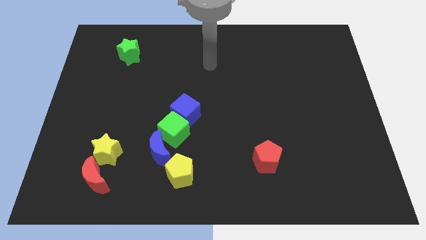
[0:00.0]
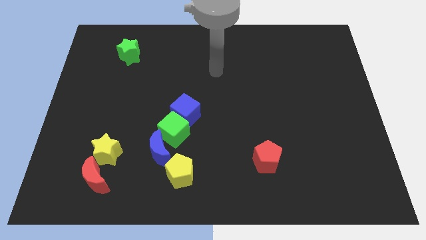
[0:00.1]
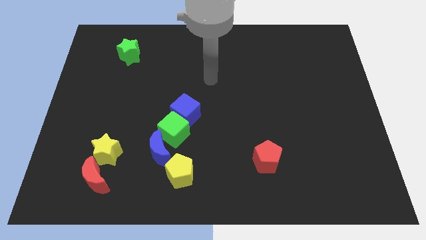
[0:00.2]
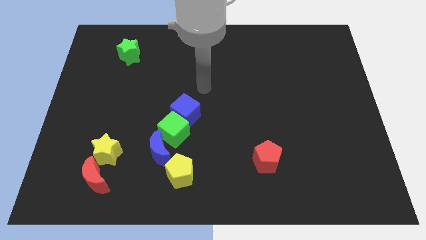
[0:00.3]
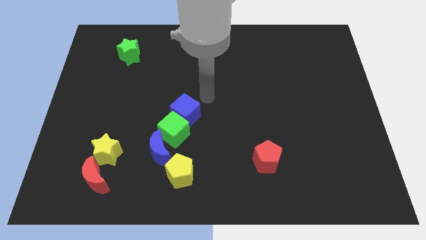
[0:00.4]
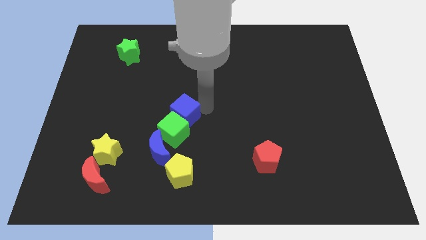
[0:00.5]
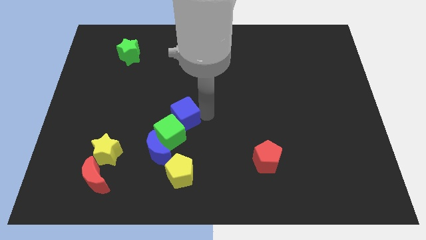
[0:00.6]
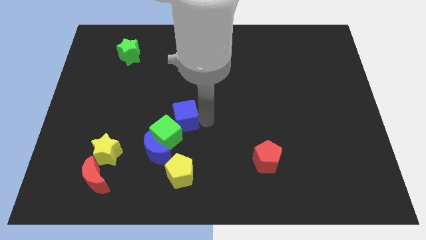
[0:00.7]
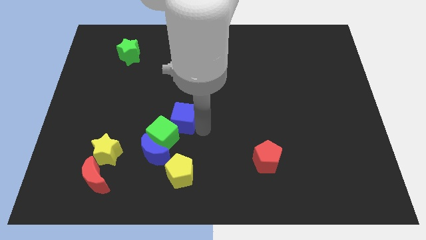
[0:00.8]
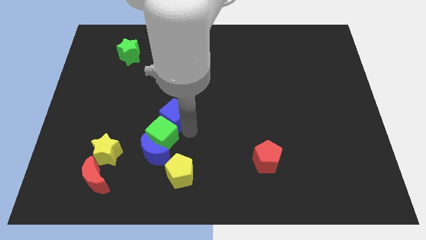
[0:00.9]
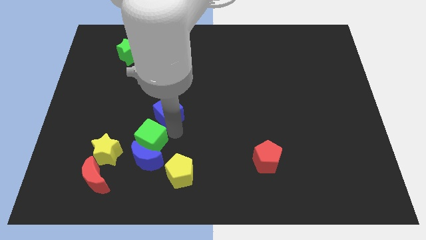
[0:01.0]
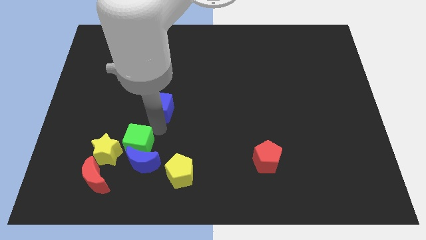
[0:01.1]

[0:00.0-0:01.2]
pull the blue cube apart from the green cube

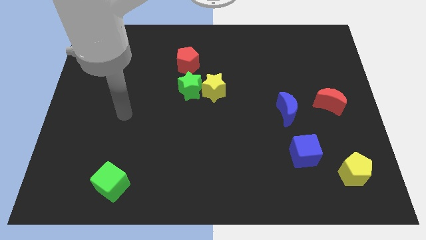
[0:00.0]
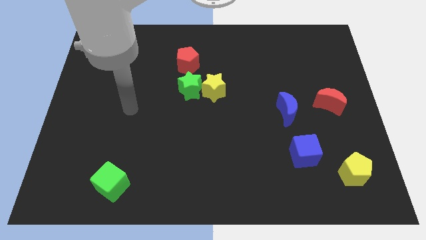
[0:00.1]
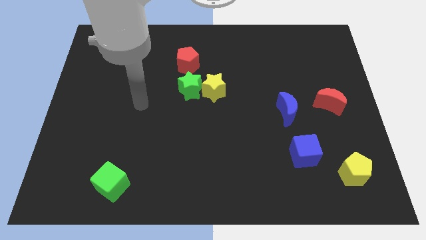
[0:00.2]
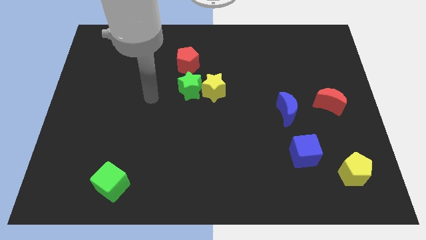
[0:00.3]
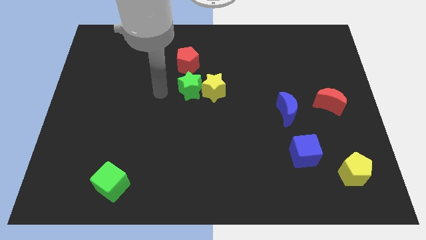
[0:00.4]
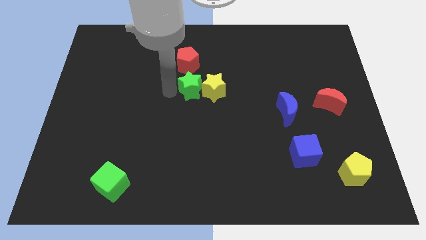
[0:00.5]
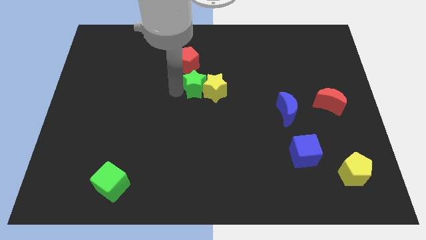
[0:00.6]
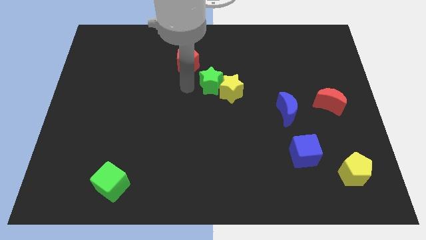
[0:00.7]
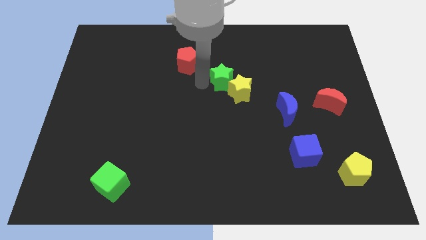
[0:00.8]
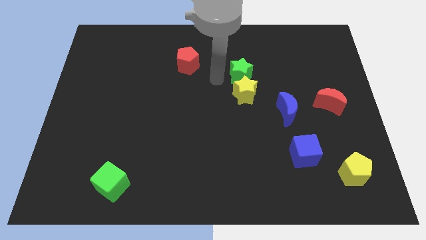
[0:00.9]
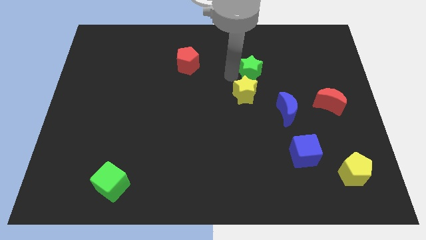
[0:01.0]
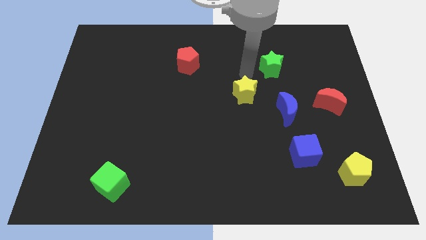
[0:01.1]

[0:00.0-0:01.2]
separate the yellow star from the green star

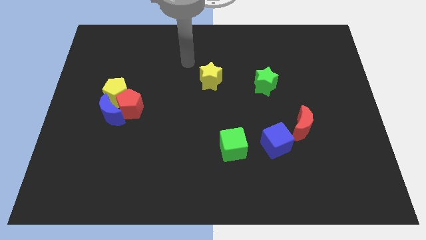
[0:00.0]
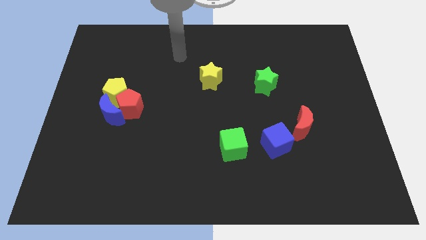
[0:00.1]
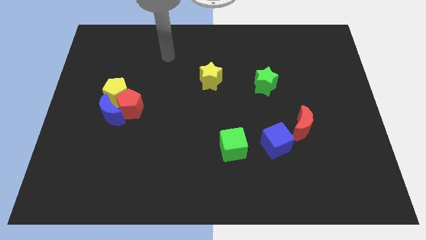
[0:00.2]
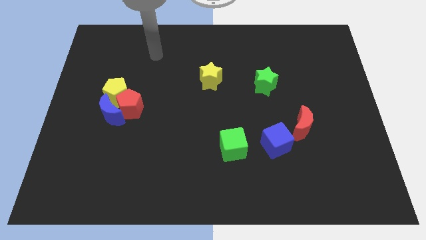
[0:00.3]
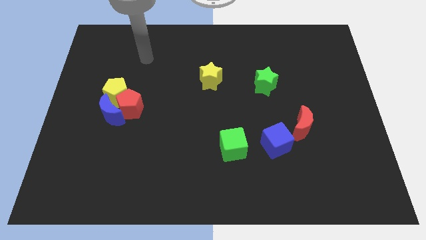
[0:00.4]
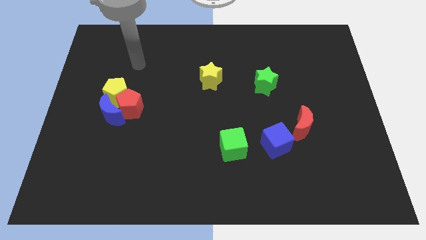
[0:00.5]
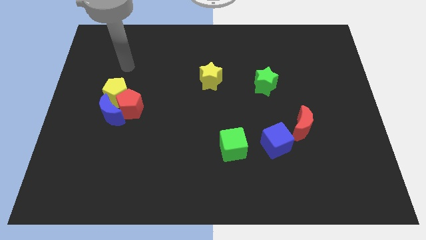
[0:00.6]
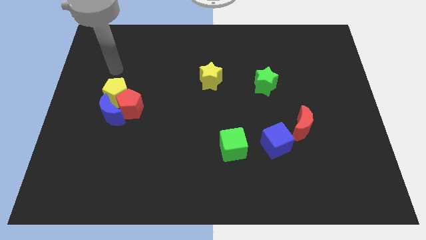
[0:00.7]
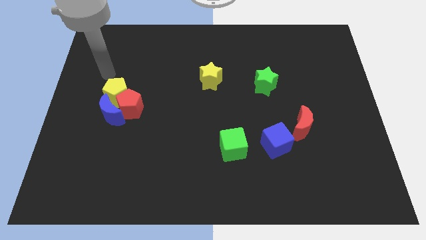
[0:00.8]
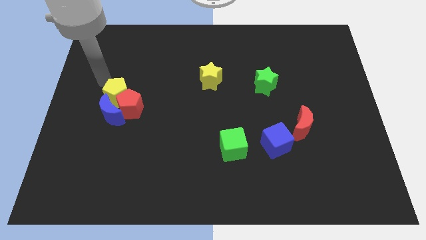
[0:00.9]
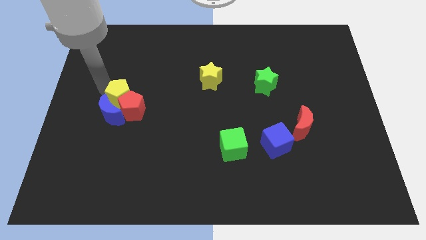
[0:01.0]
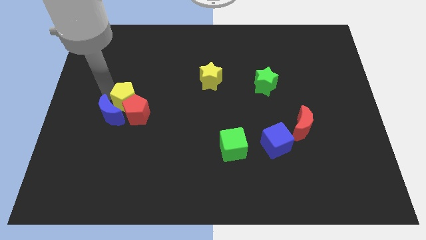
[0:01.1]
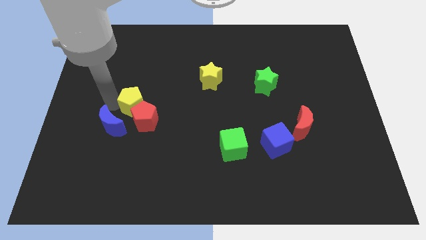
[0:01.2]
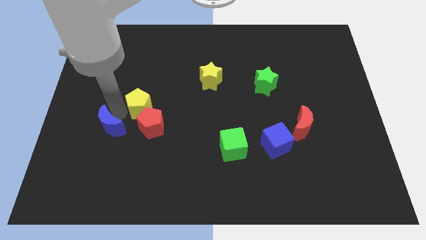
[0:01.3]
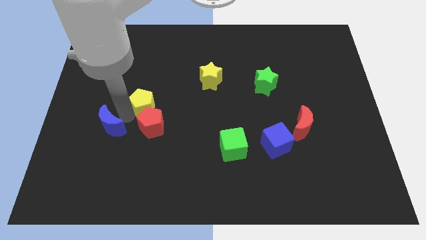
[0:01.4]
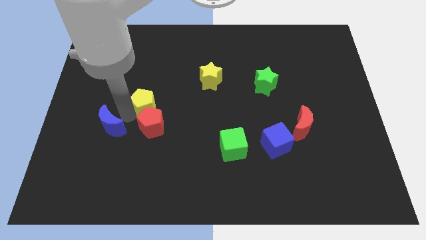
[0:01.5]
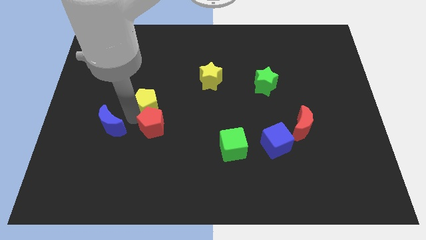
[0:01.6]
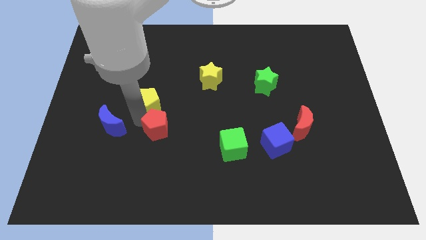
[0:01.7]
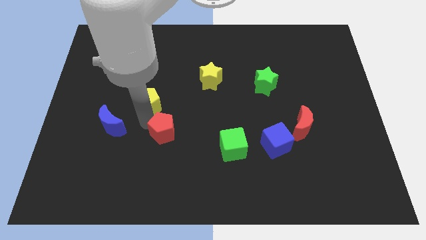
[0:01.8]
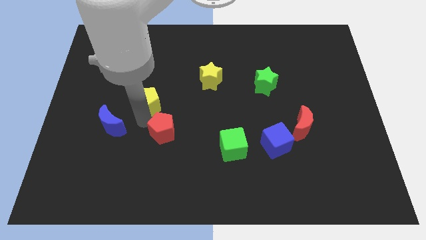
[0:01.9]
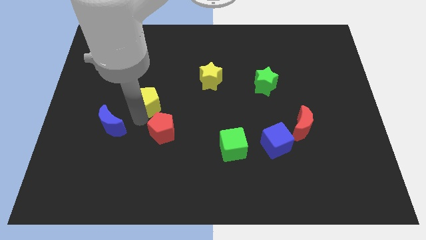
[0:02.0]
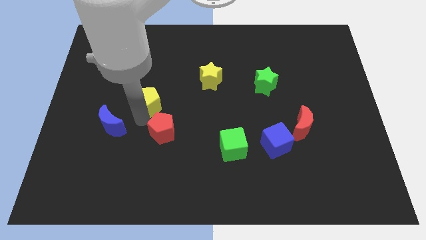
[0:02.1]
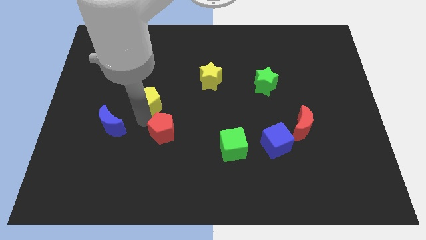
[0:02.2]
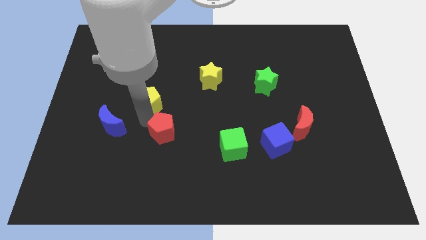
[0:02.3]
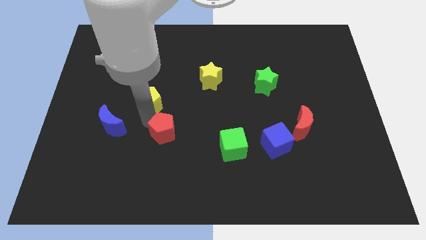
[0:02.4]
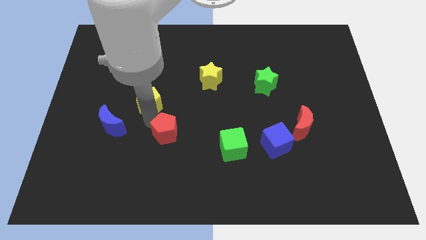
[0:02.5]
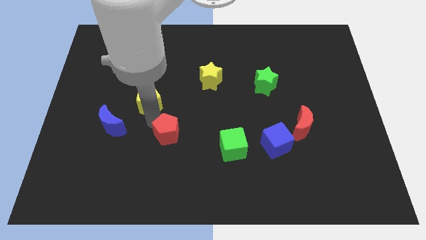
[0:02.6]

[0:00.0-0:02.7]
move the red pentagon away from the blue moon and yellow pentagon

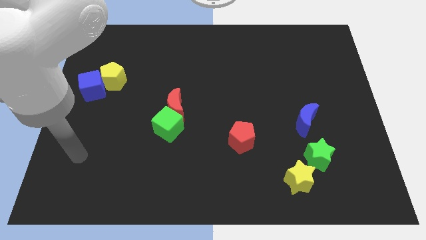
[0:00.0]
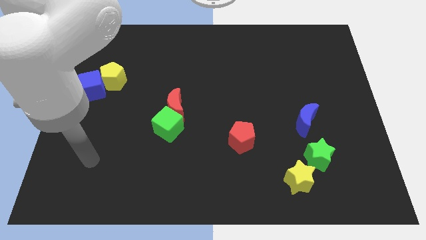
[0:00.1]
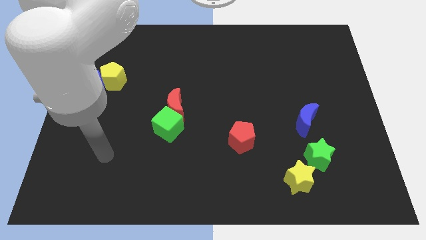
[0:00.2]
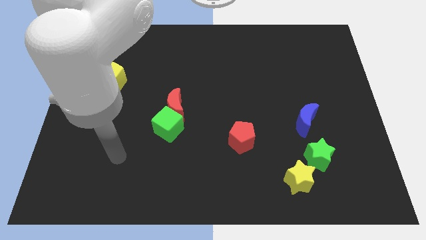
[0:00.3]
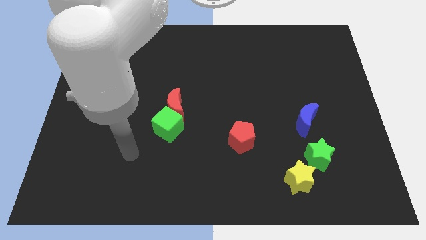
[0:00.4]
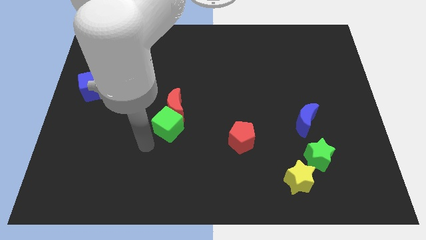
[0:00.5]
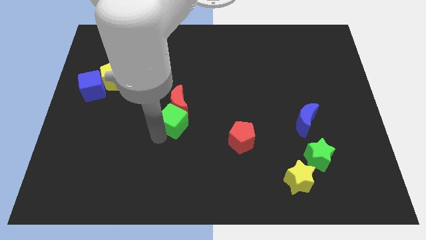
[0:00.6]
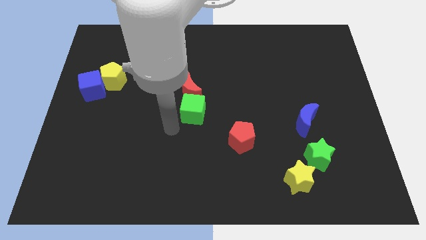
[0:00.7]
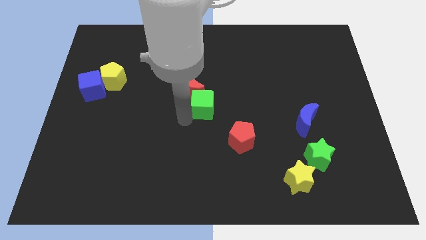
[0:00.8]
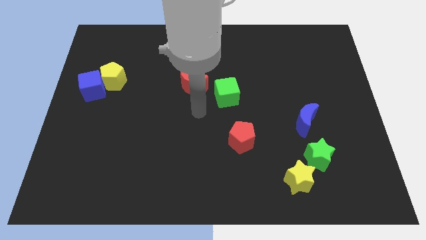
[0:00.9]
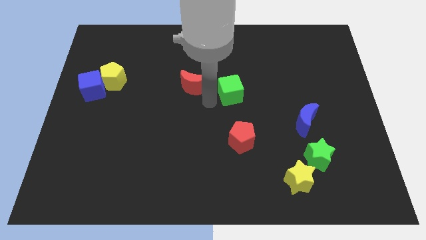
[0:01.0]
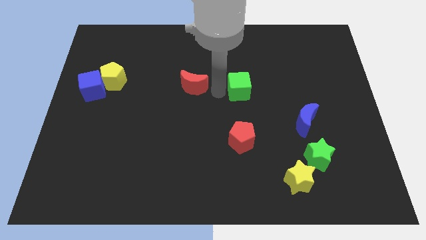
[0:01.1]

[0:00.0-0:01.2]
move the red moon away from the green cube

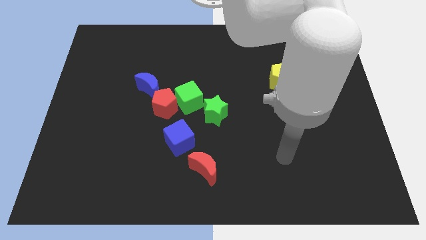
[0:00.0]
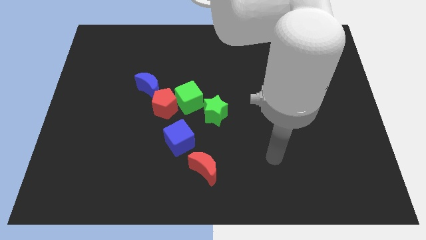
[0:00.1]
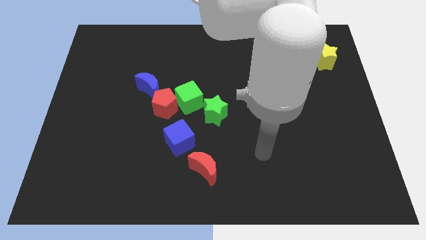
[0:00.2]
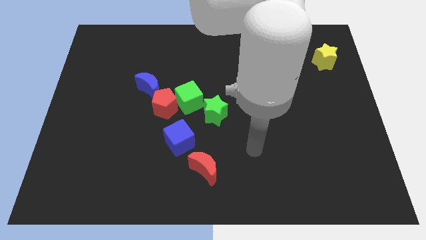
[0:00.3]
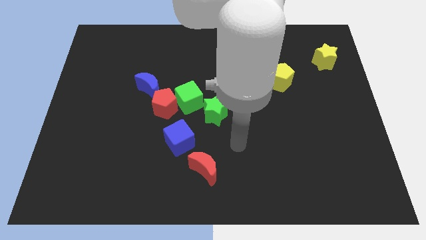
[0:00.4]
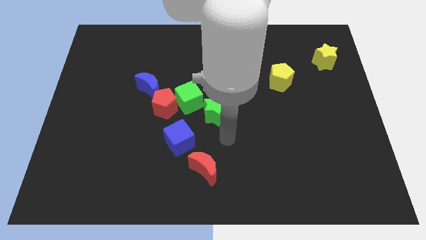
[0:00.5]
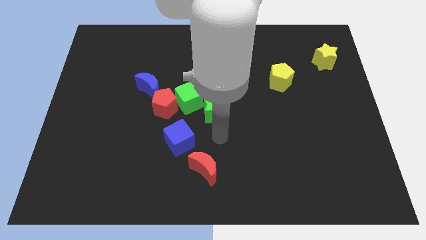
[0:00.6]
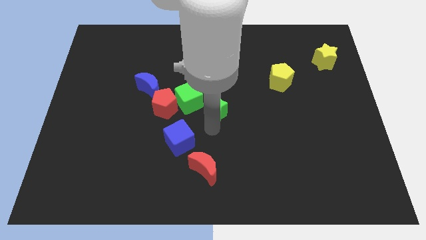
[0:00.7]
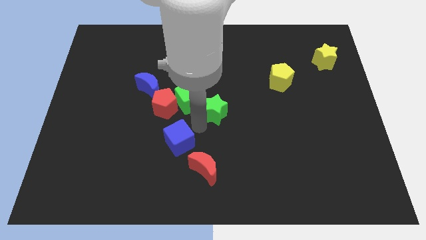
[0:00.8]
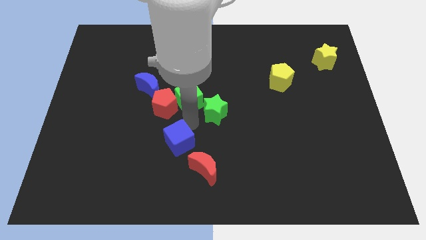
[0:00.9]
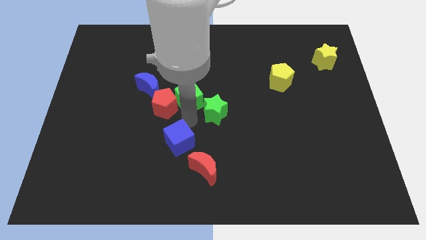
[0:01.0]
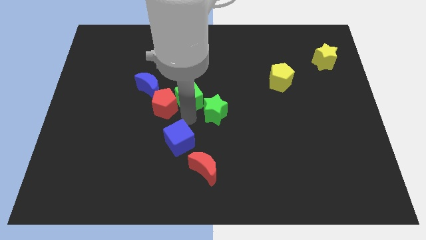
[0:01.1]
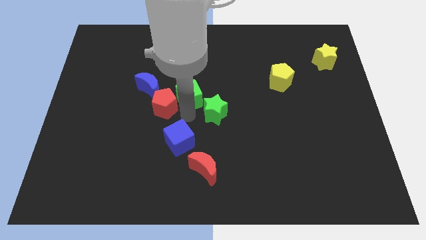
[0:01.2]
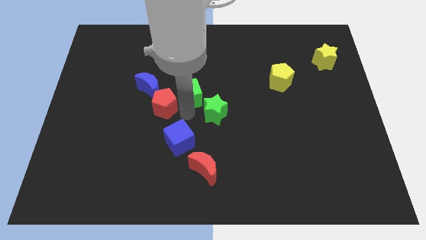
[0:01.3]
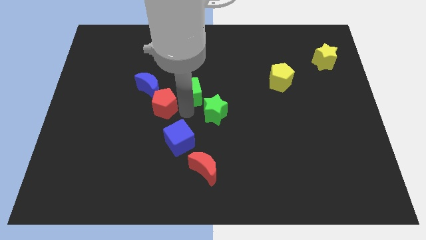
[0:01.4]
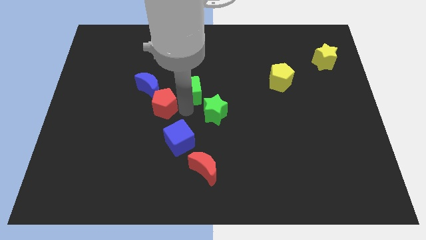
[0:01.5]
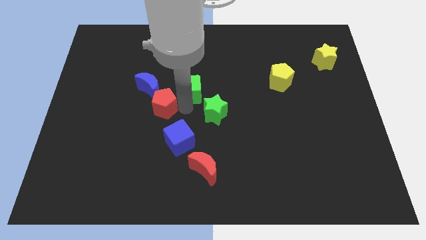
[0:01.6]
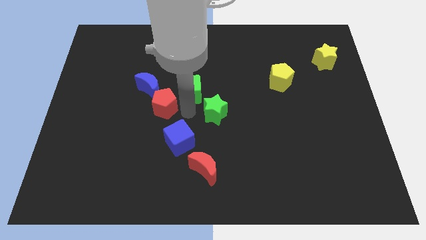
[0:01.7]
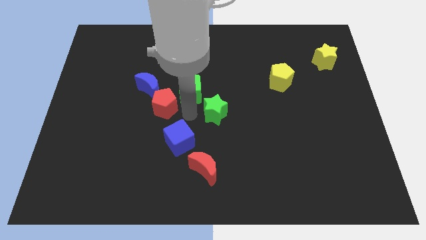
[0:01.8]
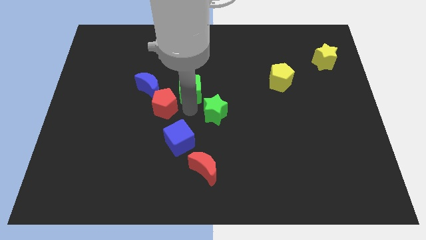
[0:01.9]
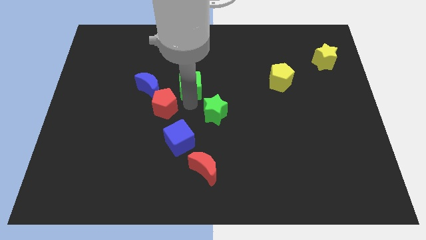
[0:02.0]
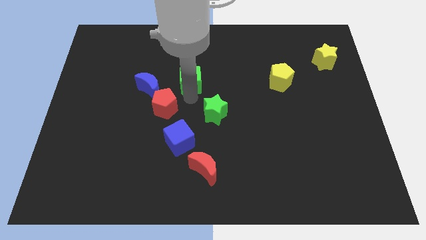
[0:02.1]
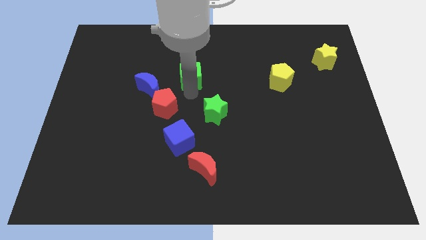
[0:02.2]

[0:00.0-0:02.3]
pull the green cube apart from the red pentagon and green star

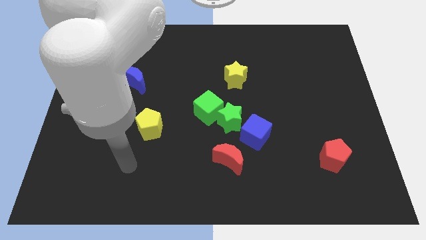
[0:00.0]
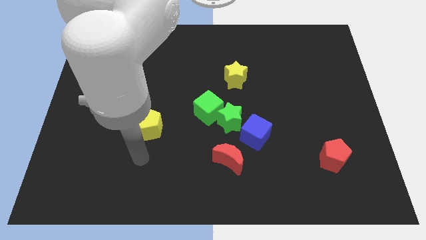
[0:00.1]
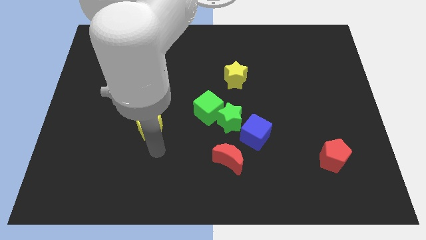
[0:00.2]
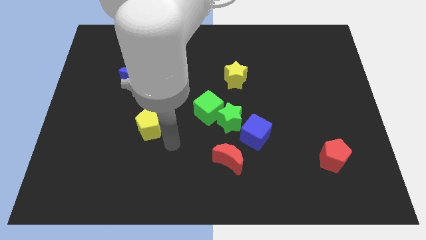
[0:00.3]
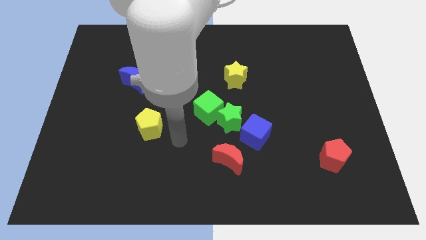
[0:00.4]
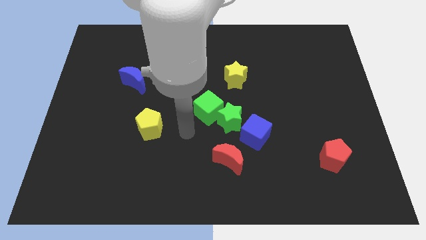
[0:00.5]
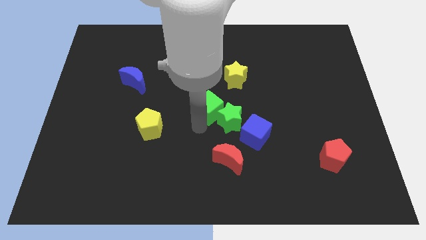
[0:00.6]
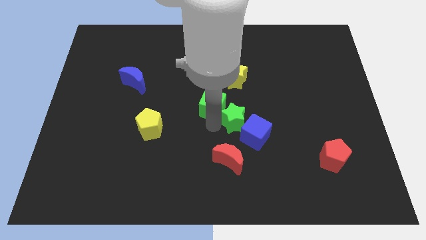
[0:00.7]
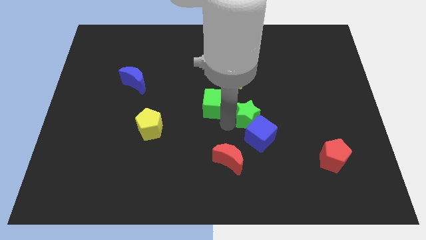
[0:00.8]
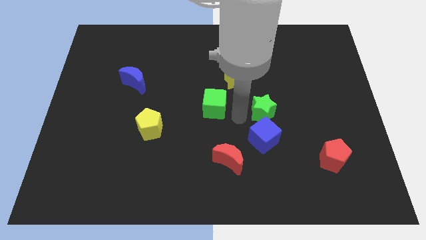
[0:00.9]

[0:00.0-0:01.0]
separate the green cube from the green star
